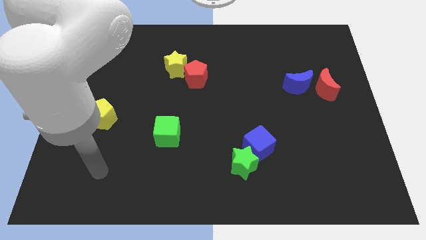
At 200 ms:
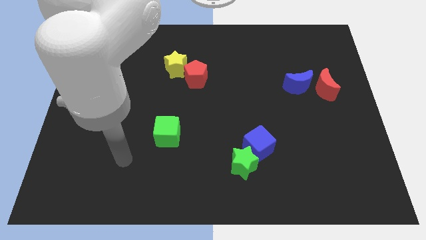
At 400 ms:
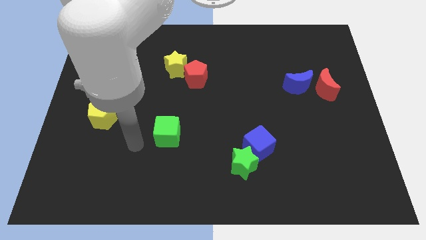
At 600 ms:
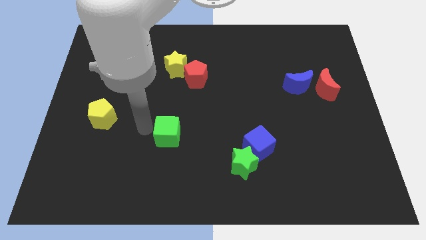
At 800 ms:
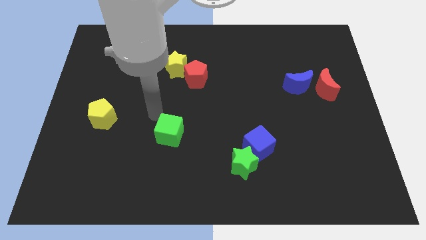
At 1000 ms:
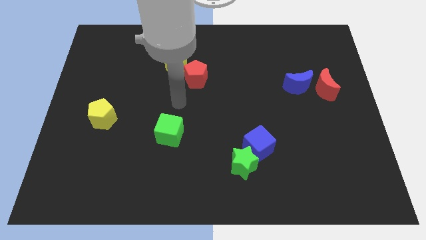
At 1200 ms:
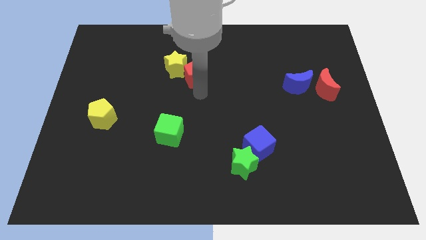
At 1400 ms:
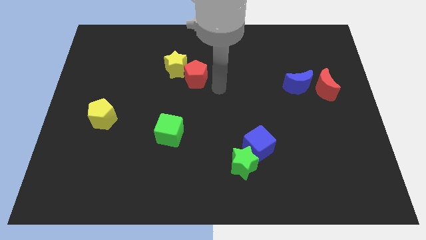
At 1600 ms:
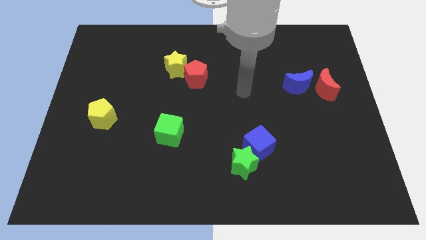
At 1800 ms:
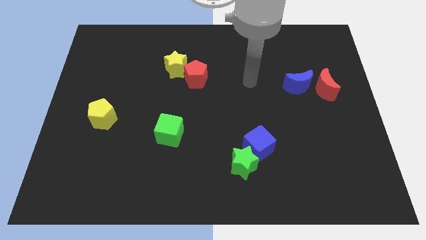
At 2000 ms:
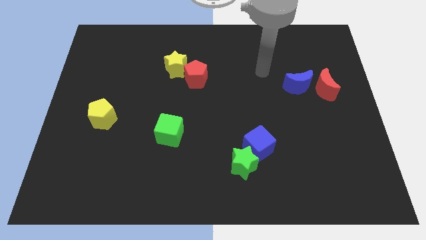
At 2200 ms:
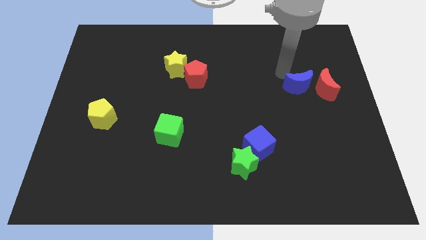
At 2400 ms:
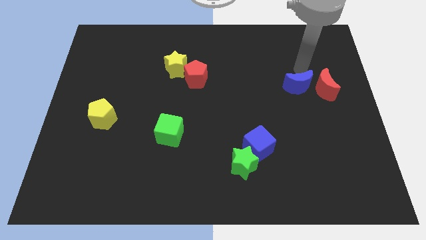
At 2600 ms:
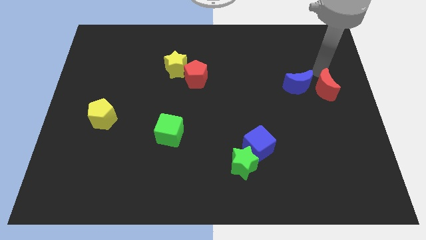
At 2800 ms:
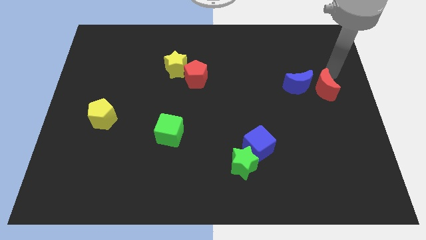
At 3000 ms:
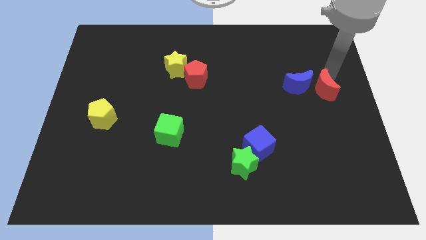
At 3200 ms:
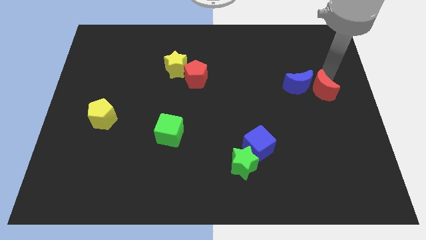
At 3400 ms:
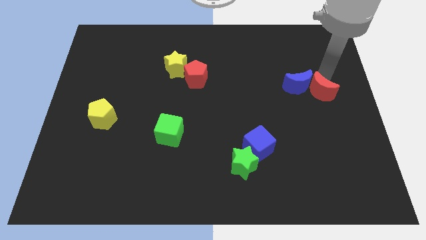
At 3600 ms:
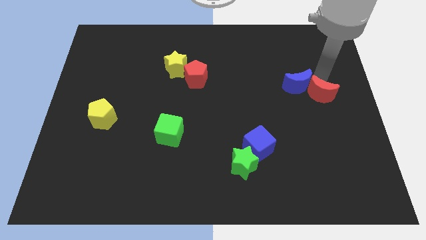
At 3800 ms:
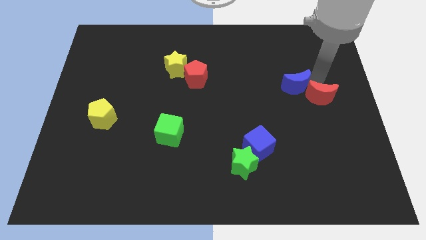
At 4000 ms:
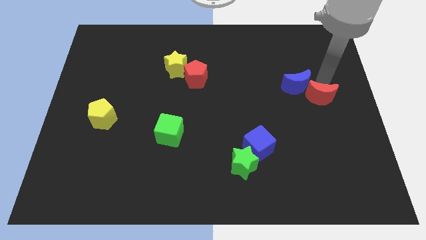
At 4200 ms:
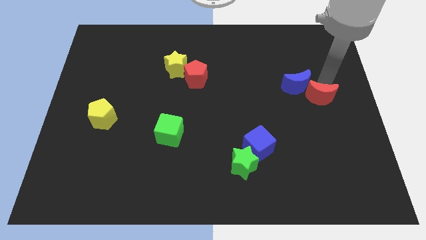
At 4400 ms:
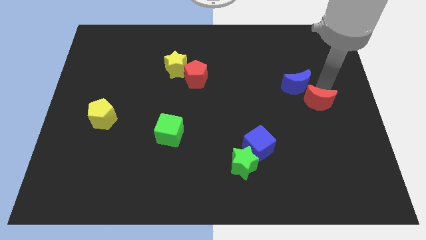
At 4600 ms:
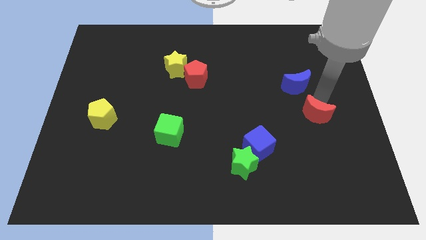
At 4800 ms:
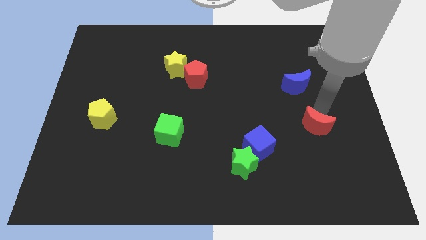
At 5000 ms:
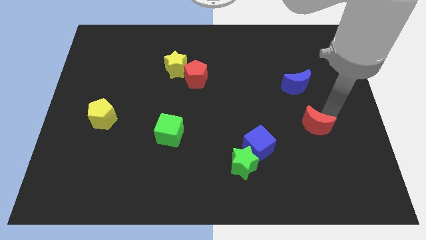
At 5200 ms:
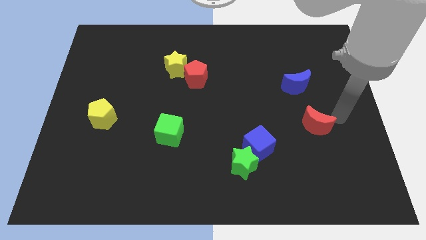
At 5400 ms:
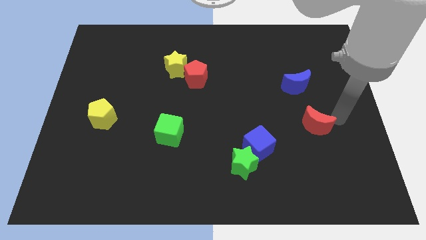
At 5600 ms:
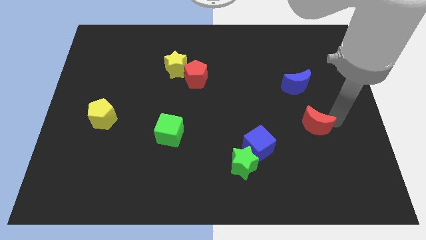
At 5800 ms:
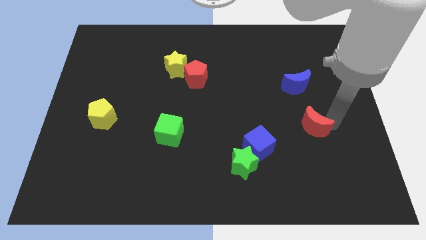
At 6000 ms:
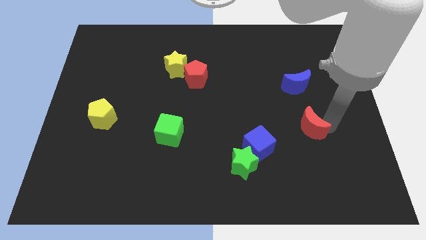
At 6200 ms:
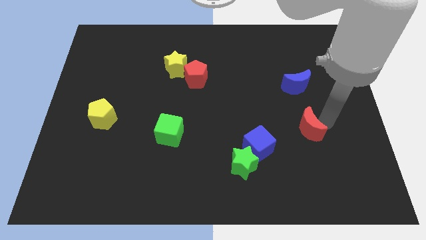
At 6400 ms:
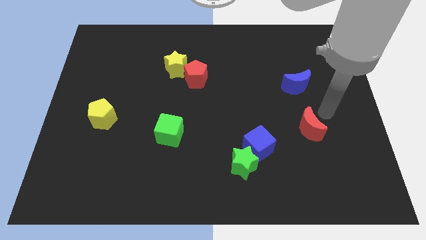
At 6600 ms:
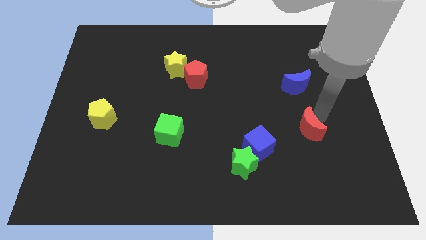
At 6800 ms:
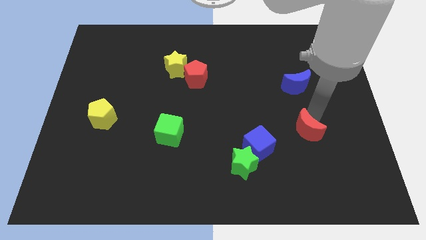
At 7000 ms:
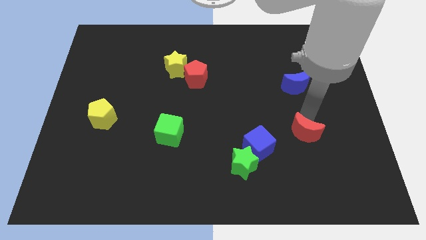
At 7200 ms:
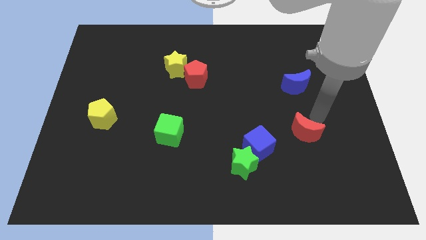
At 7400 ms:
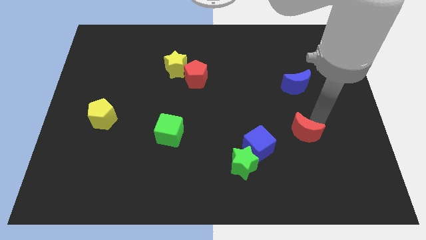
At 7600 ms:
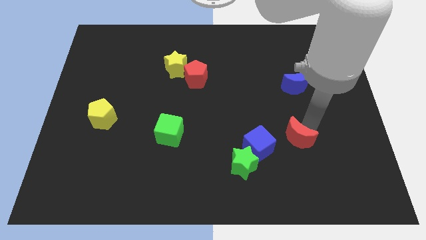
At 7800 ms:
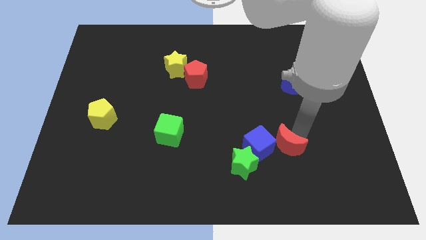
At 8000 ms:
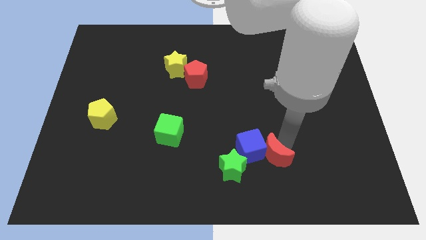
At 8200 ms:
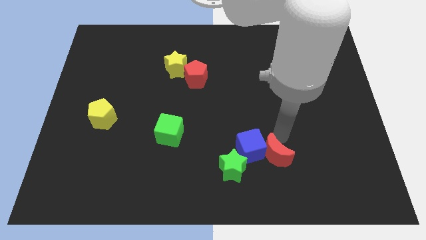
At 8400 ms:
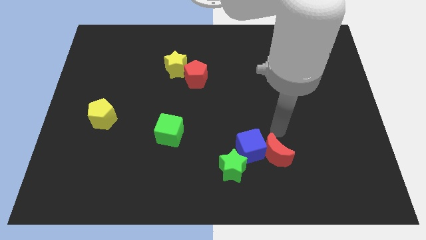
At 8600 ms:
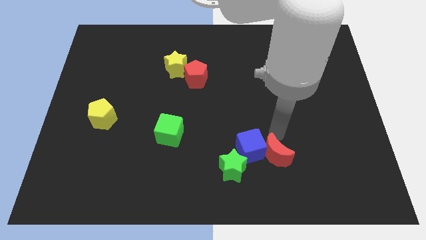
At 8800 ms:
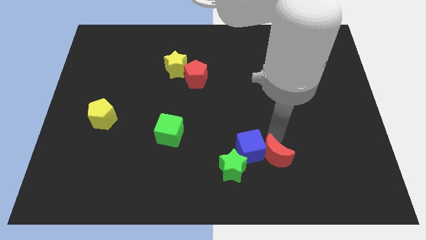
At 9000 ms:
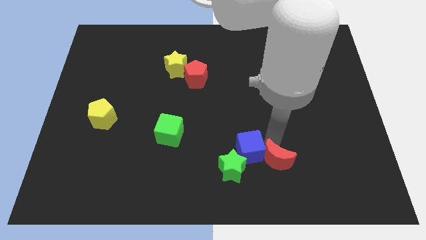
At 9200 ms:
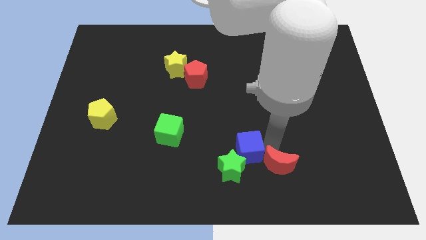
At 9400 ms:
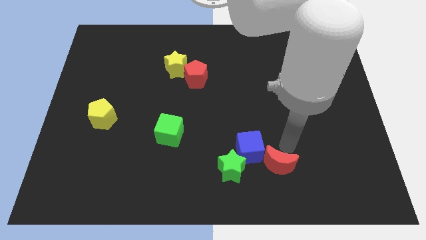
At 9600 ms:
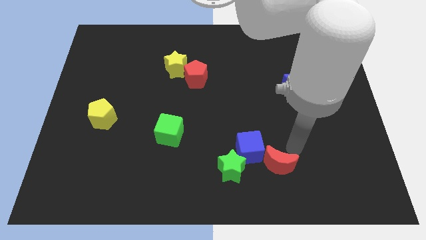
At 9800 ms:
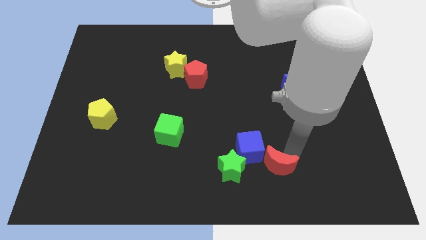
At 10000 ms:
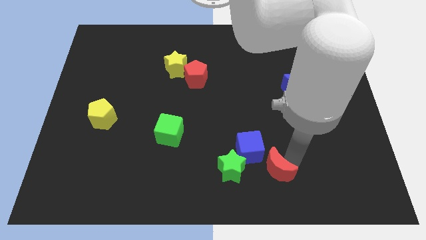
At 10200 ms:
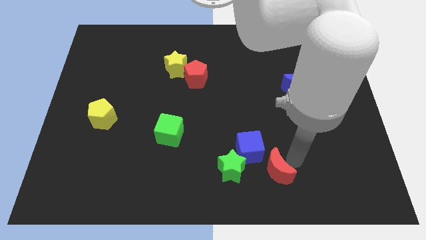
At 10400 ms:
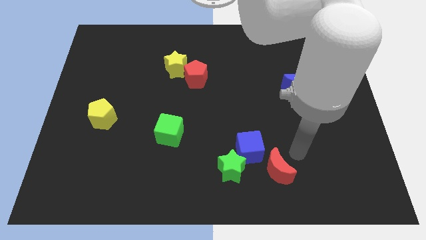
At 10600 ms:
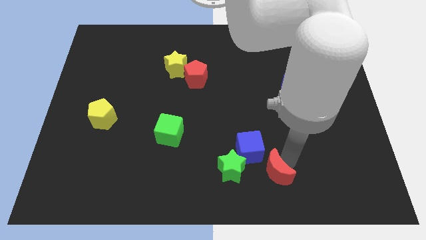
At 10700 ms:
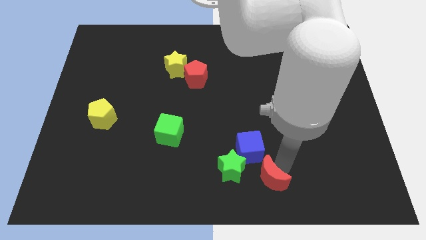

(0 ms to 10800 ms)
slide the red moon to the bottom

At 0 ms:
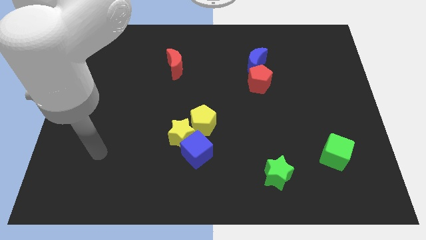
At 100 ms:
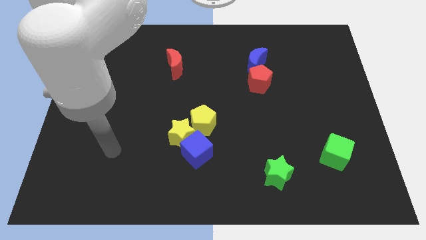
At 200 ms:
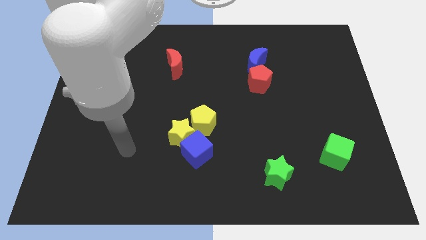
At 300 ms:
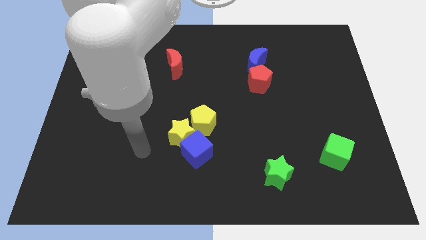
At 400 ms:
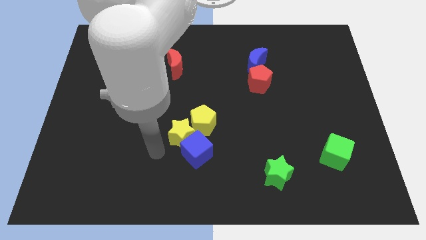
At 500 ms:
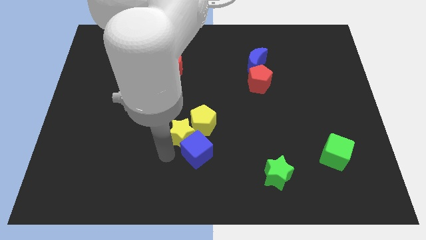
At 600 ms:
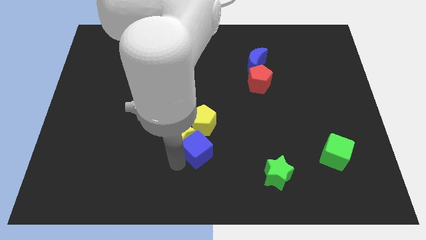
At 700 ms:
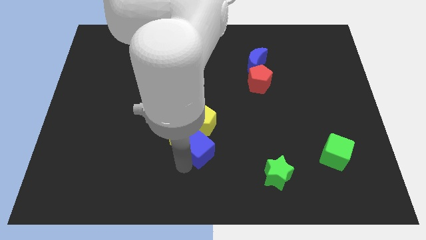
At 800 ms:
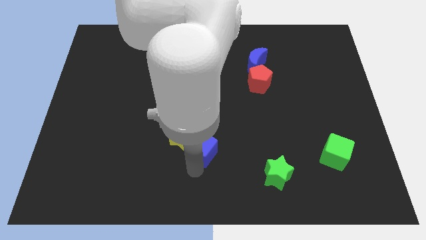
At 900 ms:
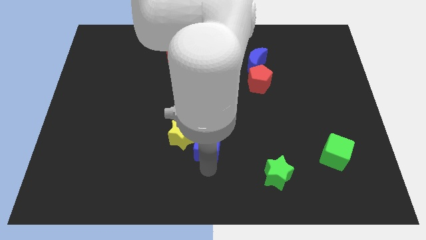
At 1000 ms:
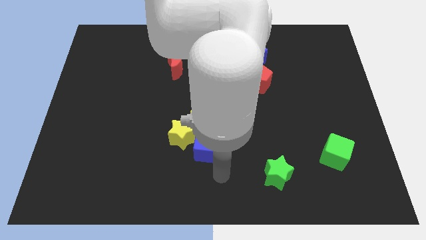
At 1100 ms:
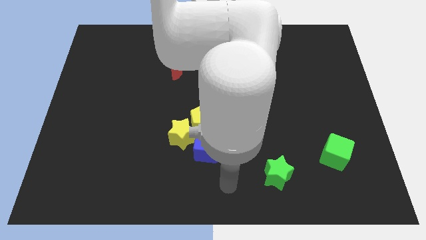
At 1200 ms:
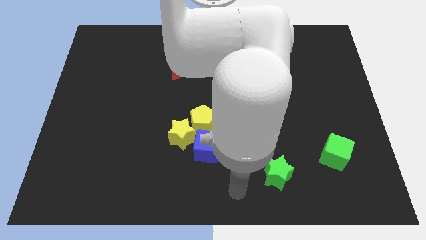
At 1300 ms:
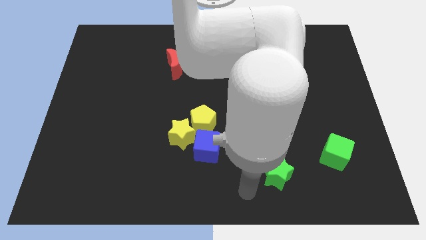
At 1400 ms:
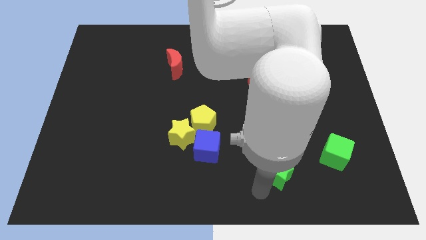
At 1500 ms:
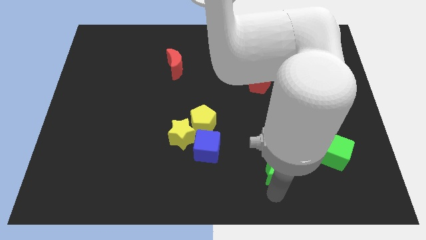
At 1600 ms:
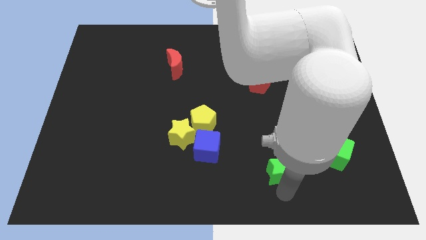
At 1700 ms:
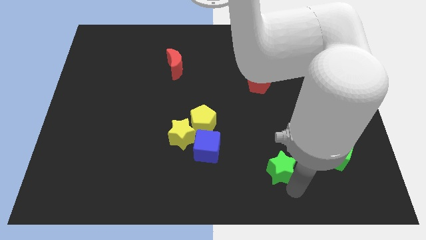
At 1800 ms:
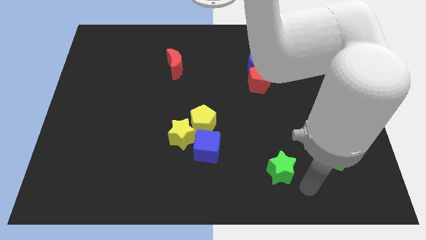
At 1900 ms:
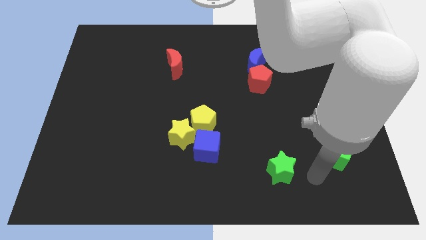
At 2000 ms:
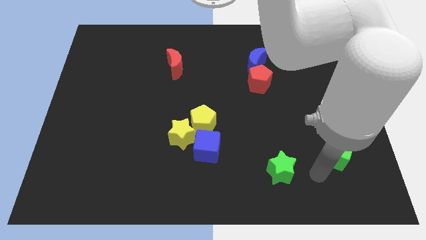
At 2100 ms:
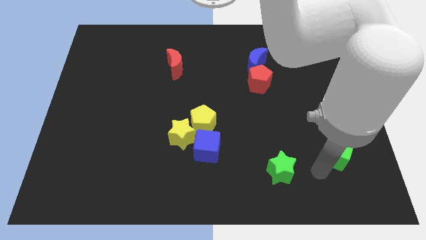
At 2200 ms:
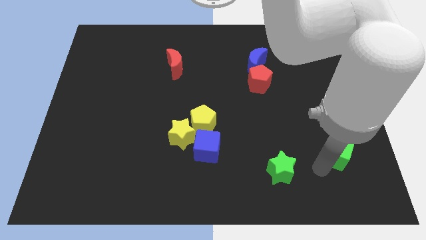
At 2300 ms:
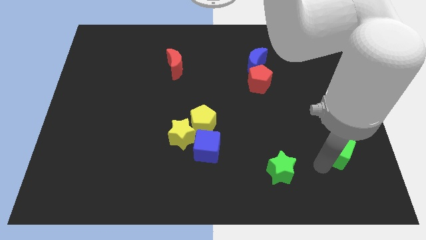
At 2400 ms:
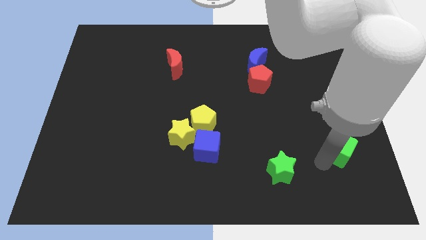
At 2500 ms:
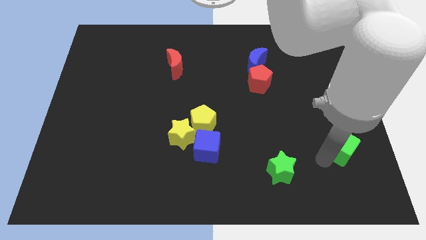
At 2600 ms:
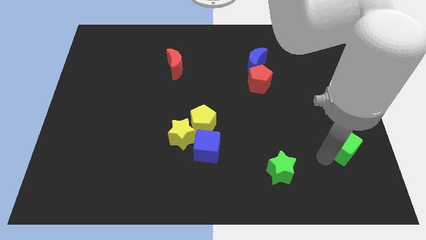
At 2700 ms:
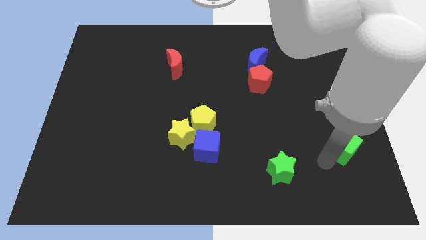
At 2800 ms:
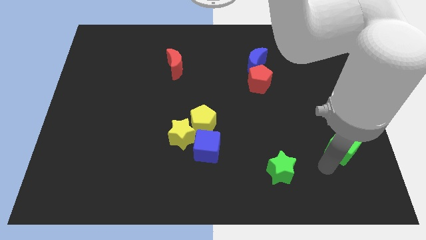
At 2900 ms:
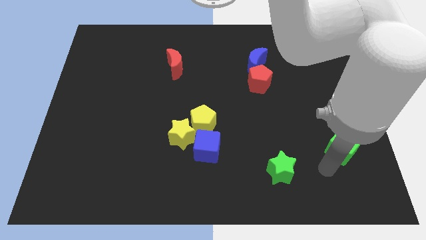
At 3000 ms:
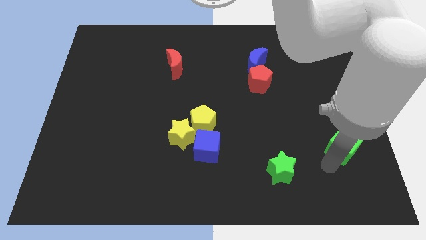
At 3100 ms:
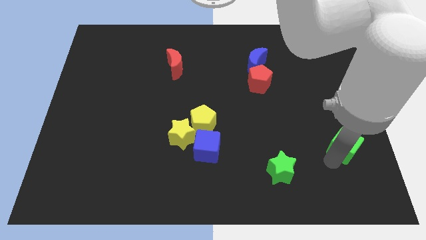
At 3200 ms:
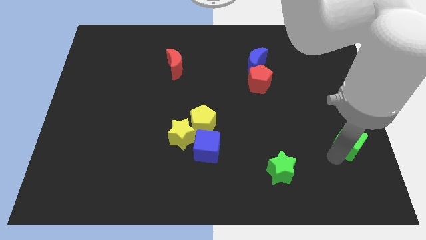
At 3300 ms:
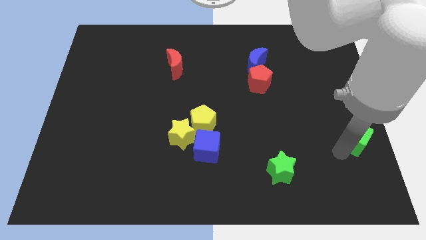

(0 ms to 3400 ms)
move the green cube to the center right
